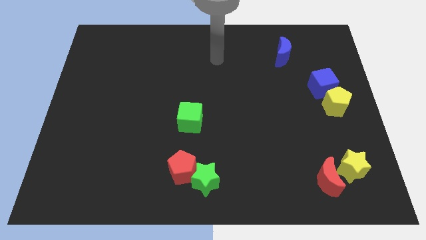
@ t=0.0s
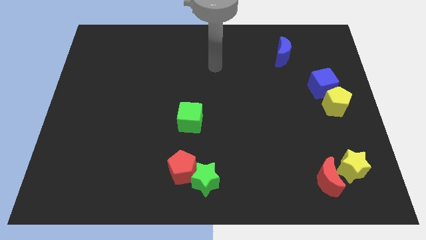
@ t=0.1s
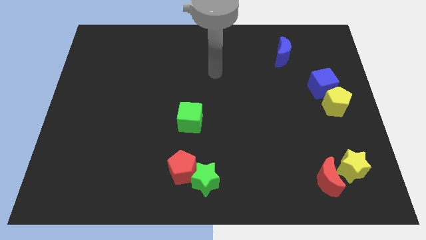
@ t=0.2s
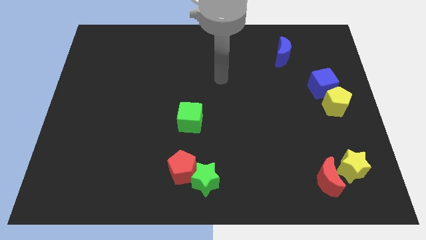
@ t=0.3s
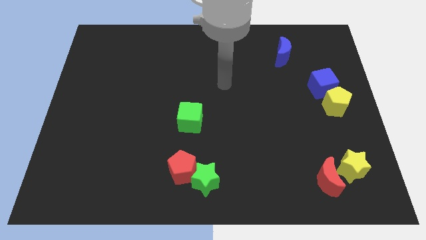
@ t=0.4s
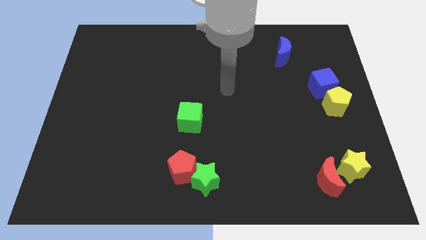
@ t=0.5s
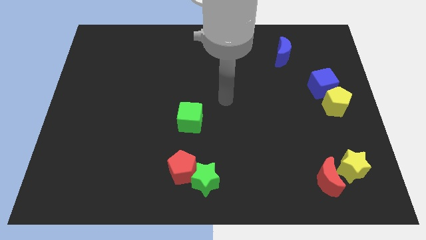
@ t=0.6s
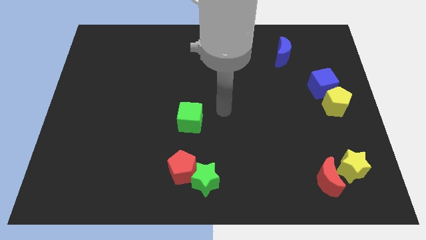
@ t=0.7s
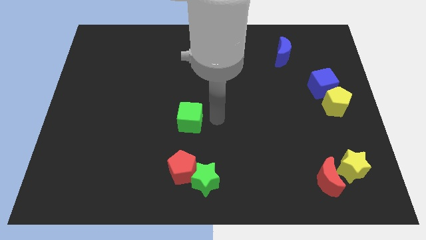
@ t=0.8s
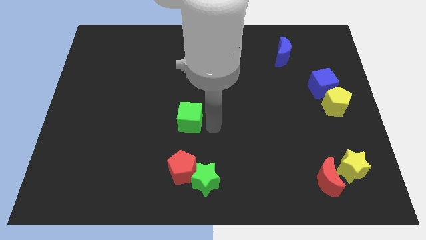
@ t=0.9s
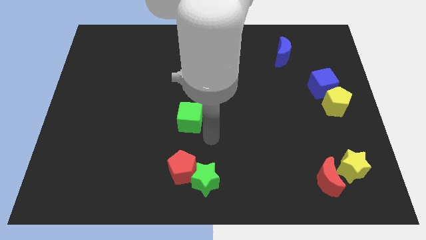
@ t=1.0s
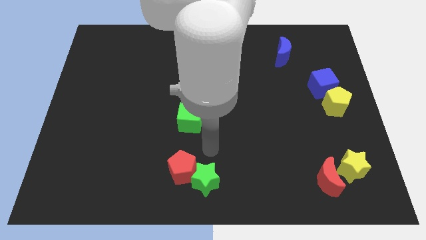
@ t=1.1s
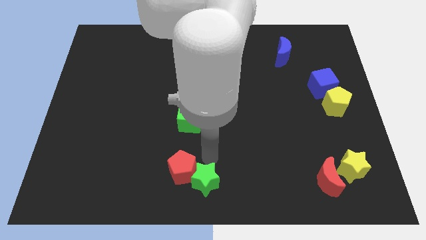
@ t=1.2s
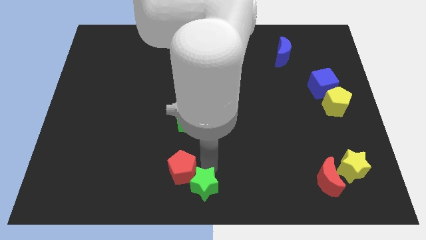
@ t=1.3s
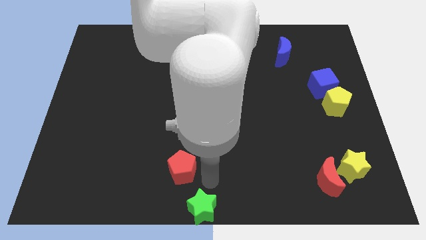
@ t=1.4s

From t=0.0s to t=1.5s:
separate the red pentagon from the green star

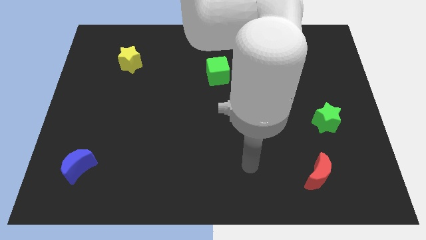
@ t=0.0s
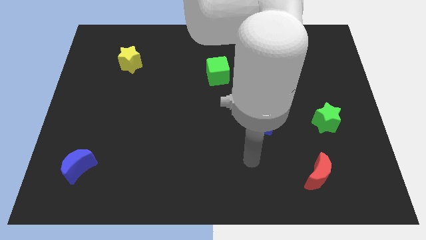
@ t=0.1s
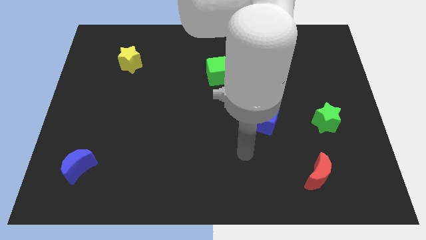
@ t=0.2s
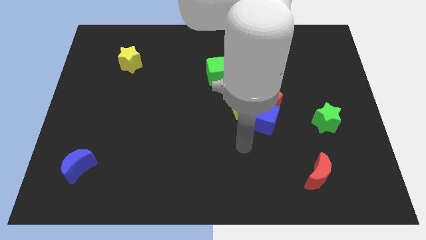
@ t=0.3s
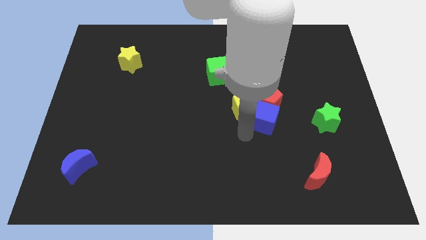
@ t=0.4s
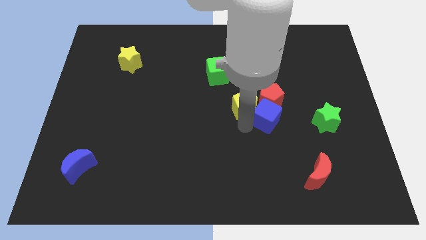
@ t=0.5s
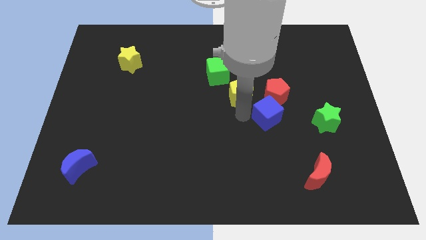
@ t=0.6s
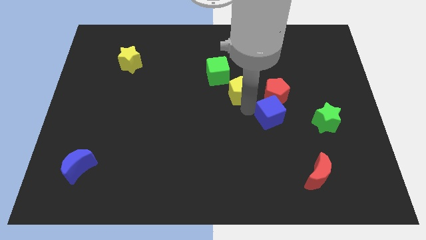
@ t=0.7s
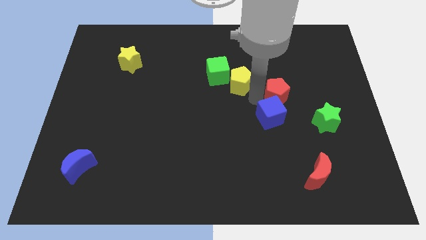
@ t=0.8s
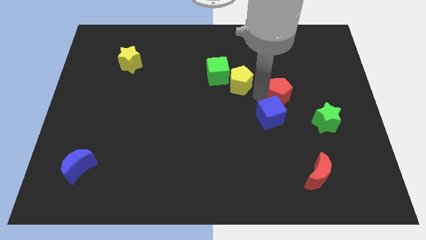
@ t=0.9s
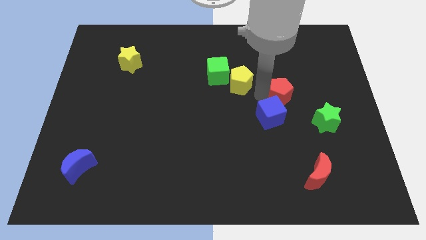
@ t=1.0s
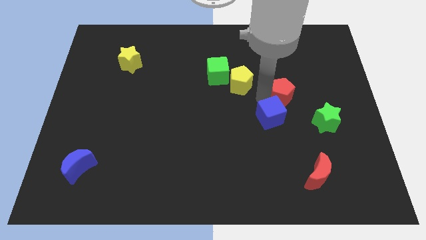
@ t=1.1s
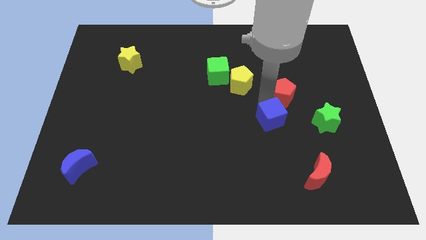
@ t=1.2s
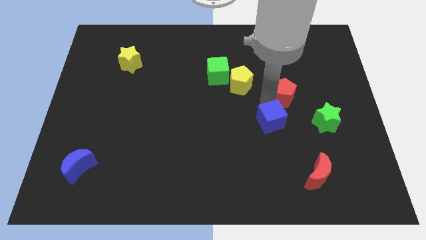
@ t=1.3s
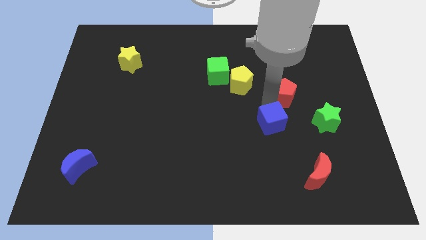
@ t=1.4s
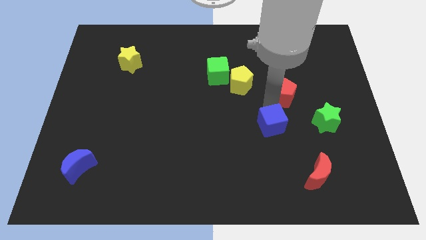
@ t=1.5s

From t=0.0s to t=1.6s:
pull the blue cube apart from the red pentagon and yellow pentagon

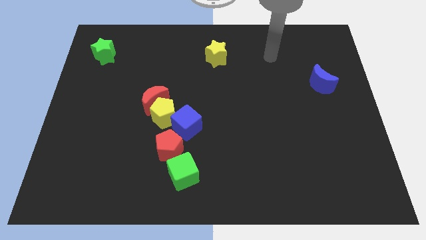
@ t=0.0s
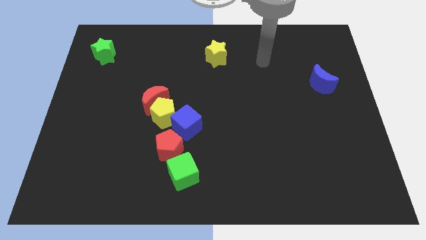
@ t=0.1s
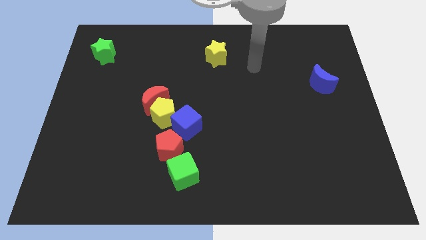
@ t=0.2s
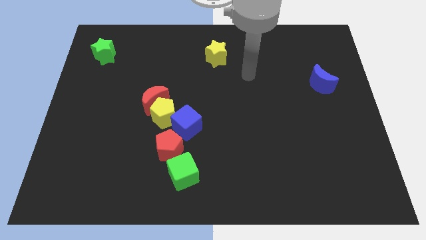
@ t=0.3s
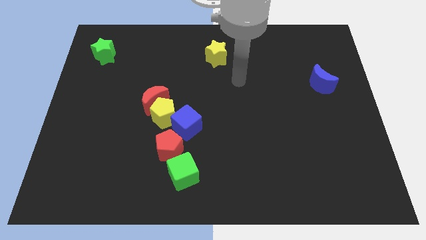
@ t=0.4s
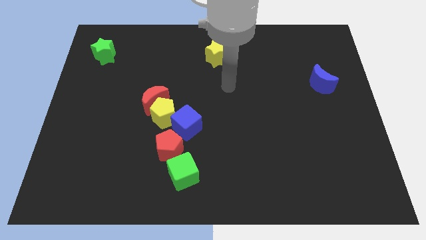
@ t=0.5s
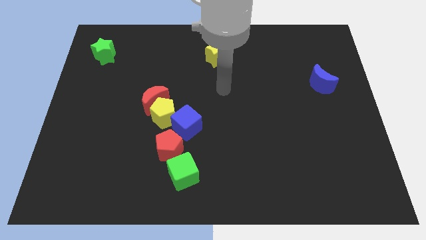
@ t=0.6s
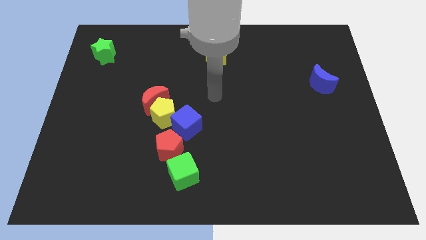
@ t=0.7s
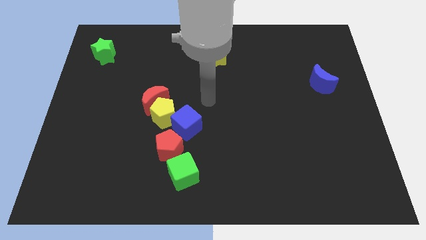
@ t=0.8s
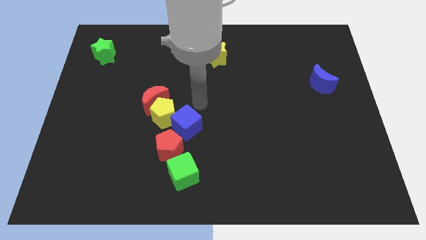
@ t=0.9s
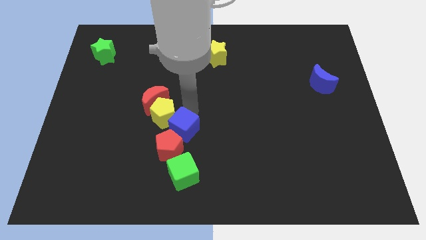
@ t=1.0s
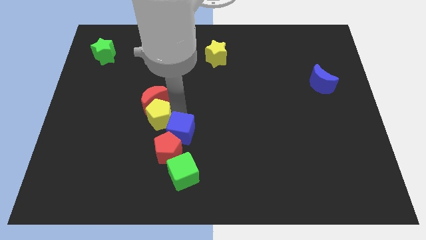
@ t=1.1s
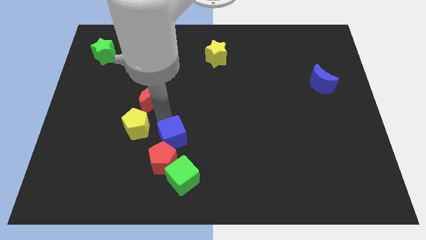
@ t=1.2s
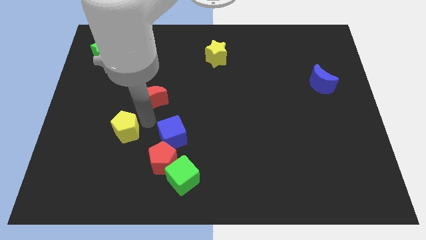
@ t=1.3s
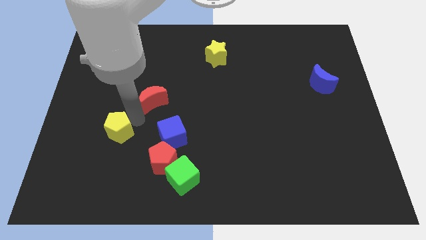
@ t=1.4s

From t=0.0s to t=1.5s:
pull the red moon apart from the yellow pentagon

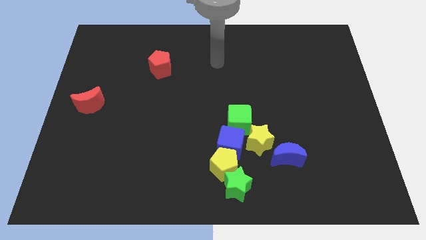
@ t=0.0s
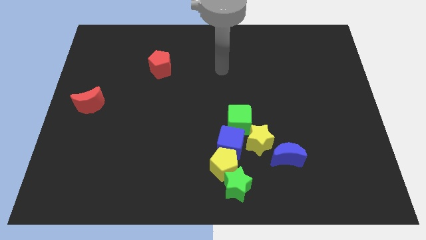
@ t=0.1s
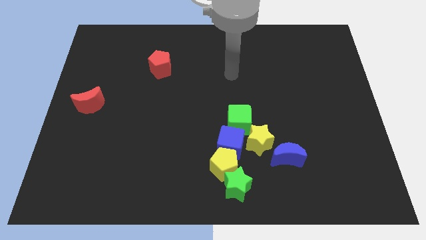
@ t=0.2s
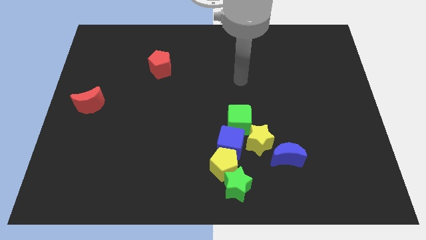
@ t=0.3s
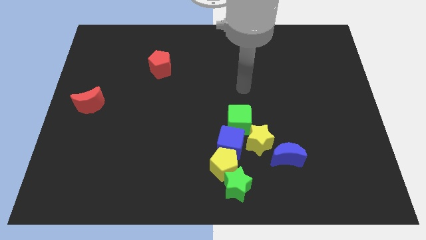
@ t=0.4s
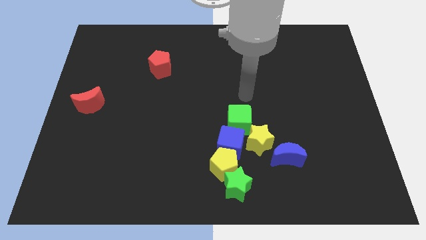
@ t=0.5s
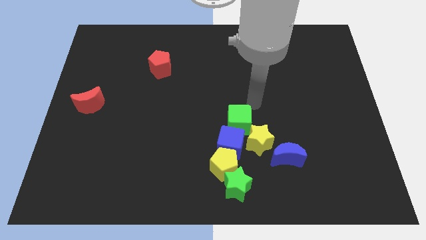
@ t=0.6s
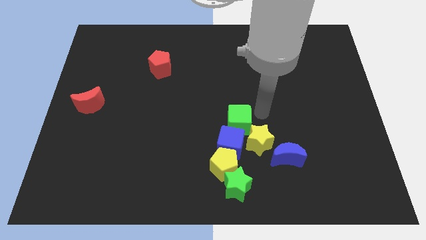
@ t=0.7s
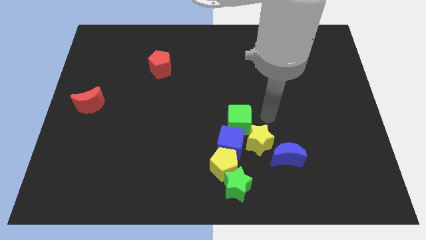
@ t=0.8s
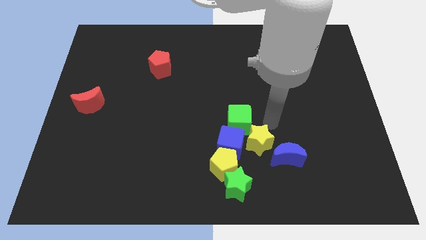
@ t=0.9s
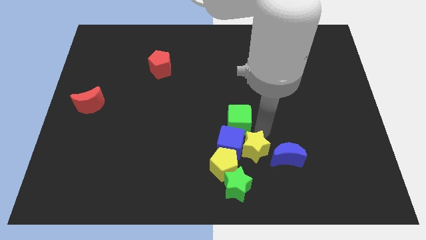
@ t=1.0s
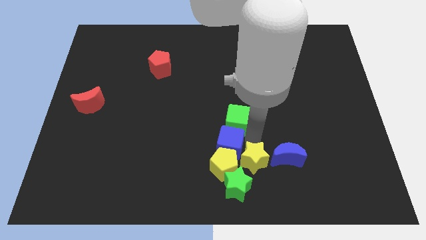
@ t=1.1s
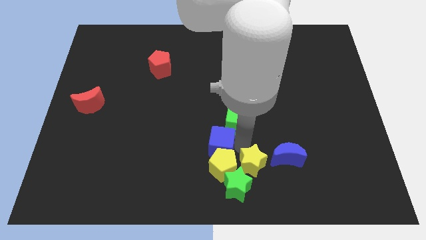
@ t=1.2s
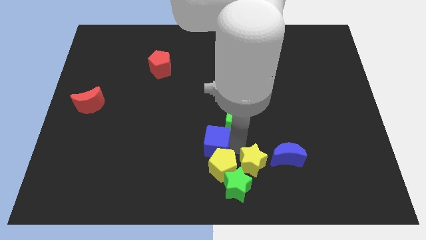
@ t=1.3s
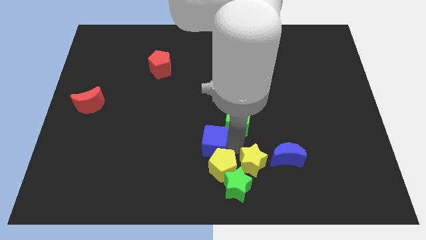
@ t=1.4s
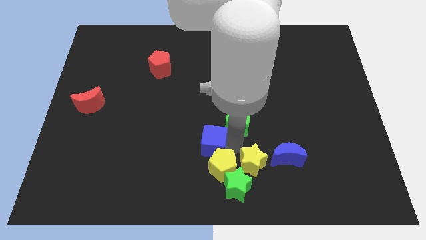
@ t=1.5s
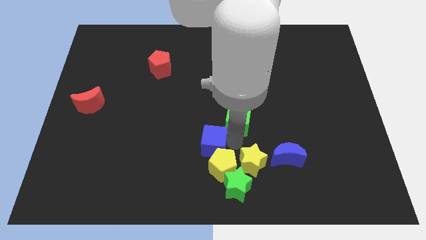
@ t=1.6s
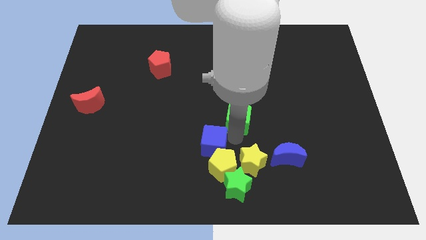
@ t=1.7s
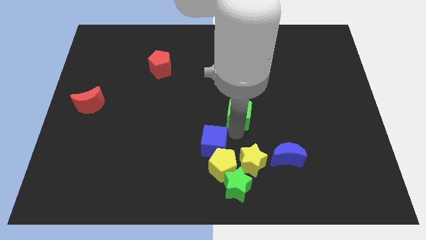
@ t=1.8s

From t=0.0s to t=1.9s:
separate the green cube from the blue cube and yellow star

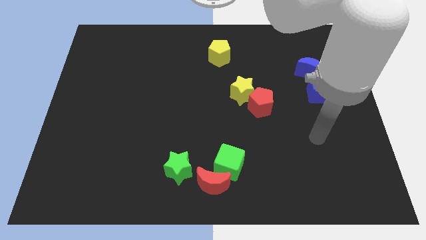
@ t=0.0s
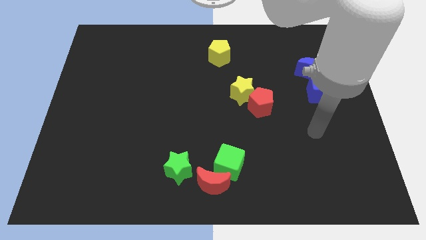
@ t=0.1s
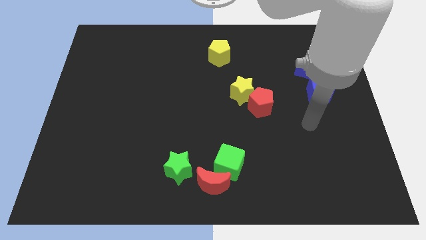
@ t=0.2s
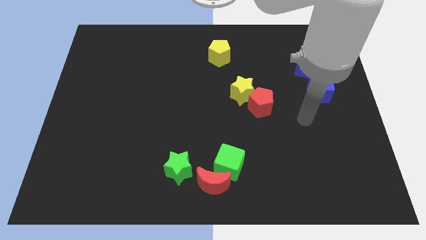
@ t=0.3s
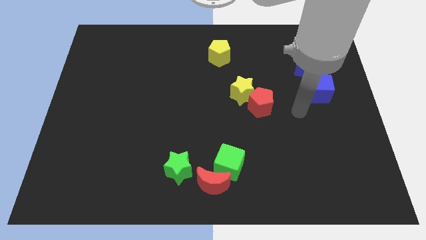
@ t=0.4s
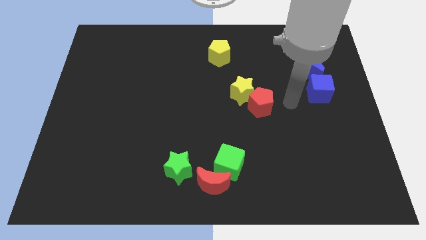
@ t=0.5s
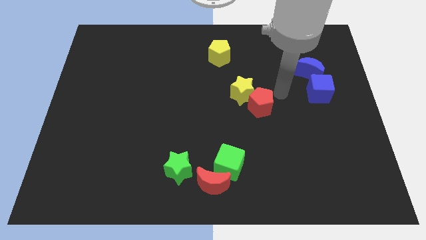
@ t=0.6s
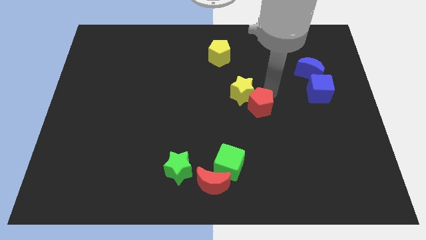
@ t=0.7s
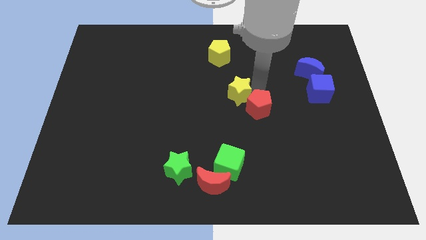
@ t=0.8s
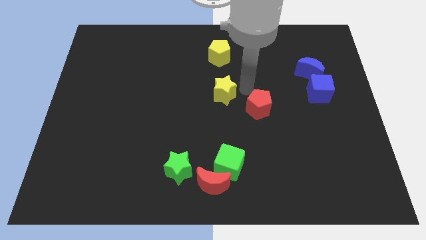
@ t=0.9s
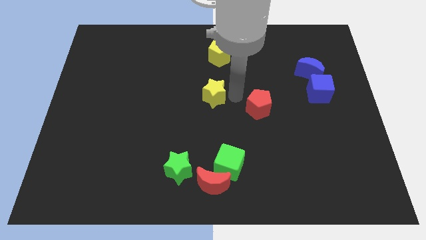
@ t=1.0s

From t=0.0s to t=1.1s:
separate the red pentagon from the yellow star

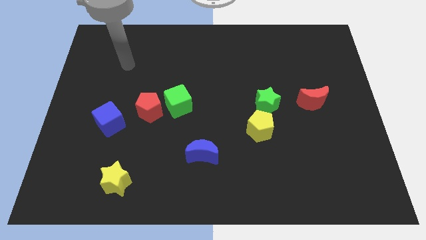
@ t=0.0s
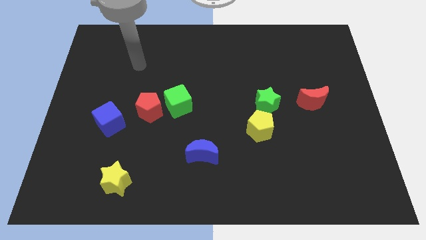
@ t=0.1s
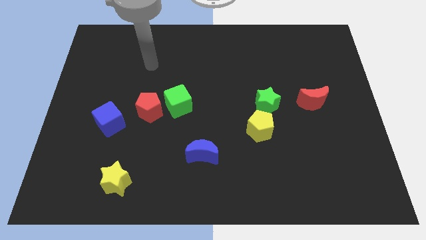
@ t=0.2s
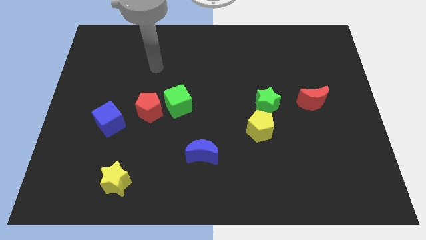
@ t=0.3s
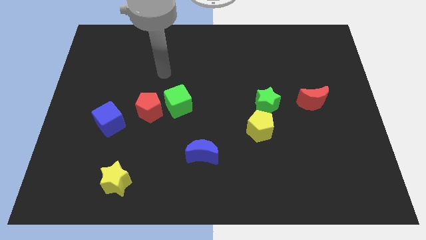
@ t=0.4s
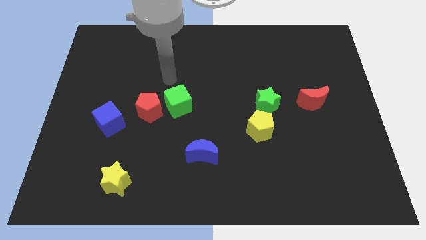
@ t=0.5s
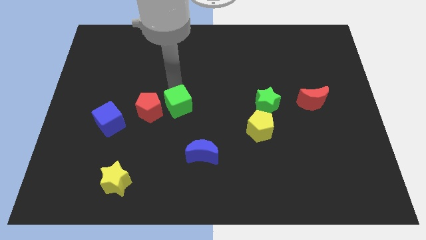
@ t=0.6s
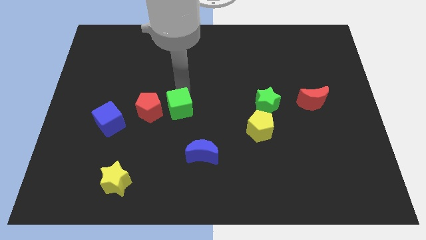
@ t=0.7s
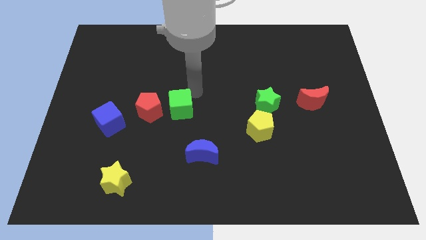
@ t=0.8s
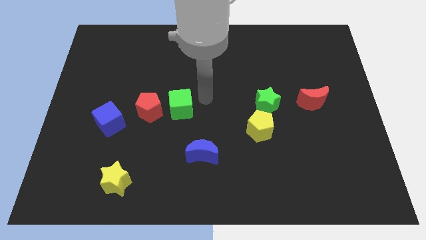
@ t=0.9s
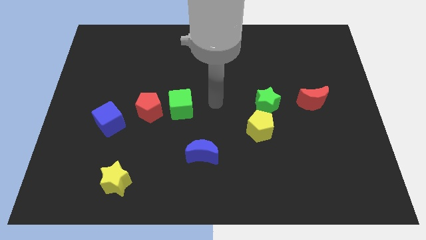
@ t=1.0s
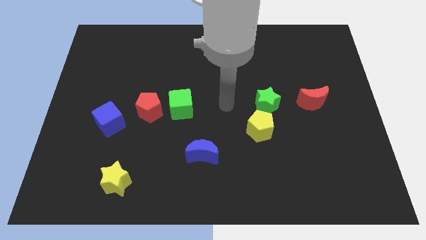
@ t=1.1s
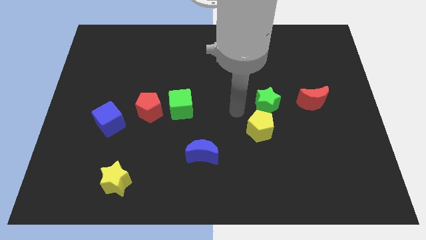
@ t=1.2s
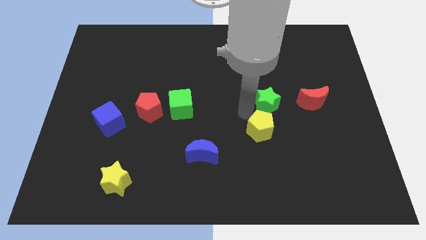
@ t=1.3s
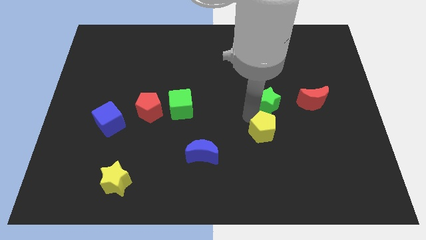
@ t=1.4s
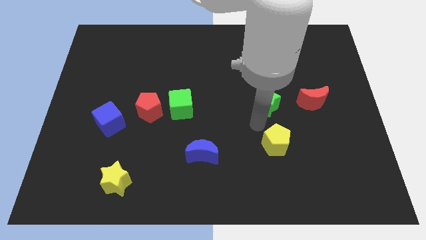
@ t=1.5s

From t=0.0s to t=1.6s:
pull the green star apart from the yellow pentagon
